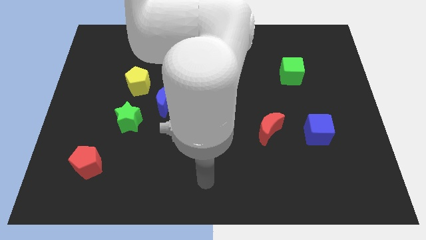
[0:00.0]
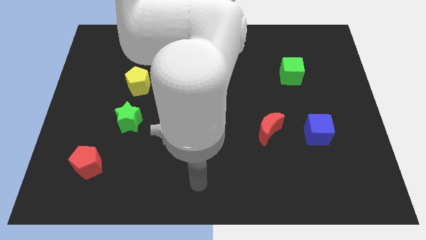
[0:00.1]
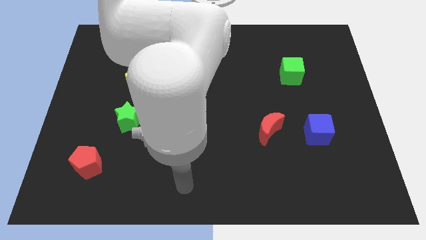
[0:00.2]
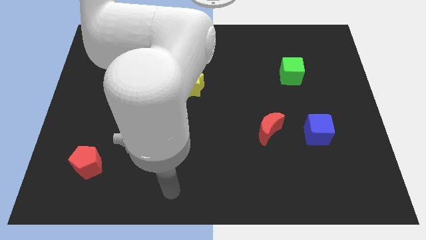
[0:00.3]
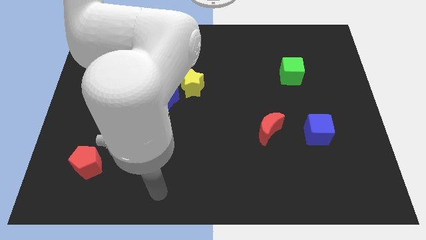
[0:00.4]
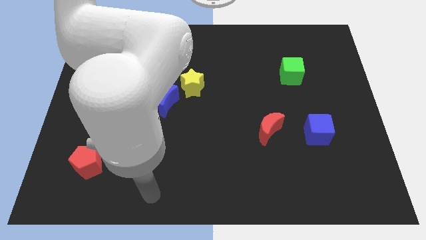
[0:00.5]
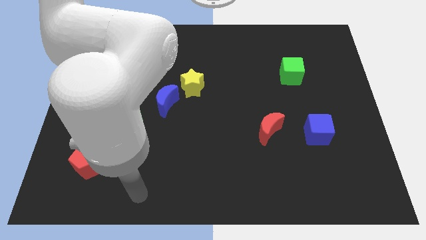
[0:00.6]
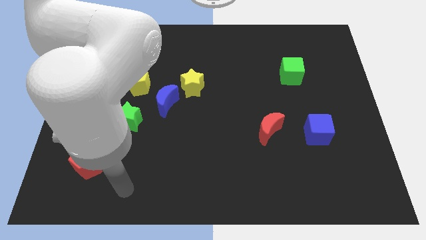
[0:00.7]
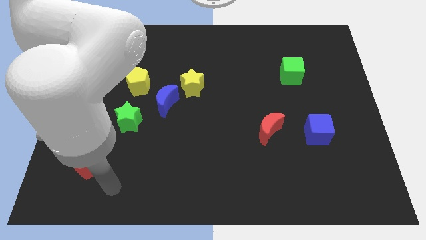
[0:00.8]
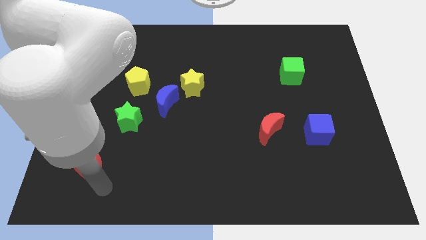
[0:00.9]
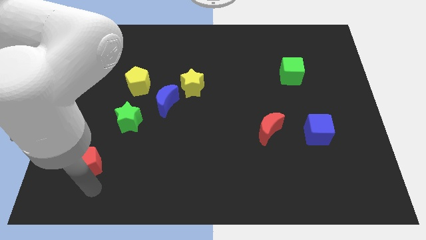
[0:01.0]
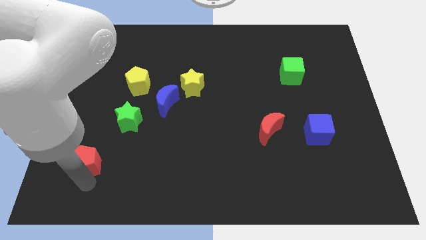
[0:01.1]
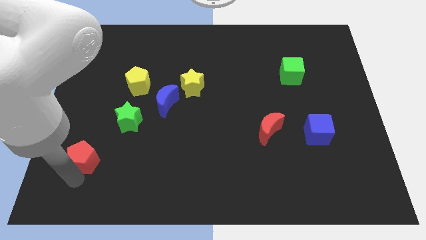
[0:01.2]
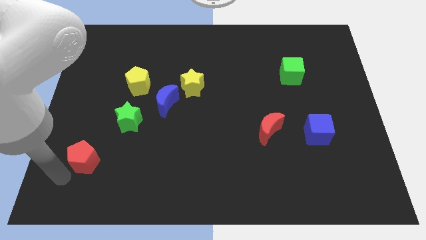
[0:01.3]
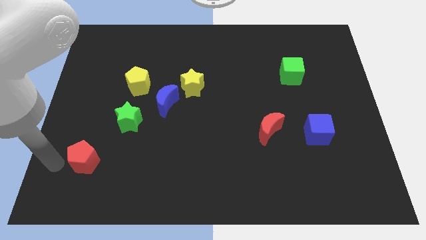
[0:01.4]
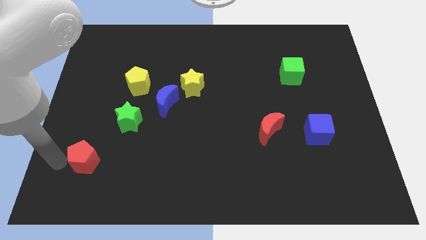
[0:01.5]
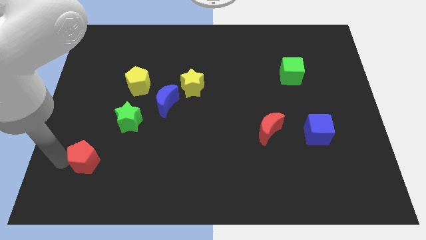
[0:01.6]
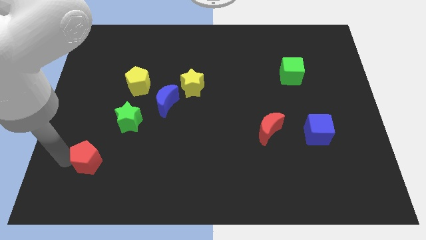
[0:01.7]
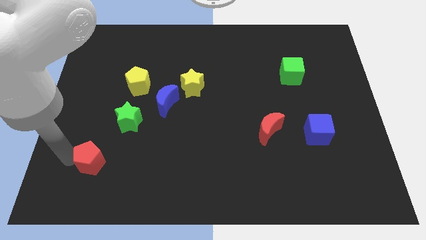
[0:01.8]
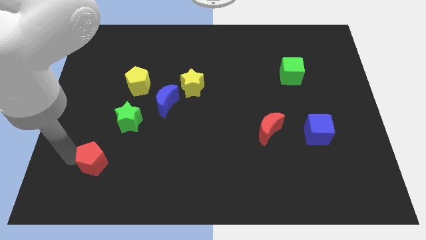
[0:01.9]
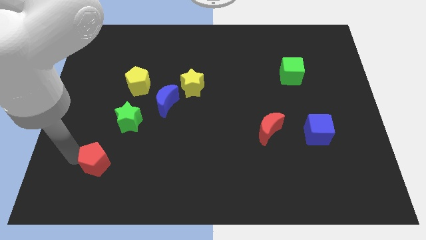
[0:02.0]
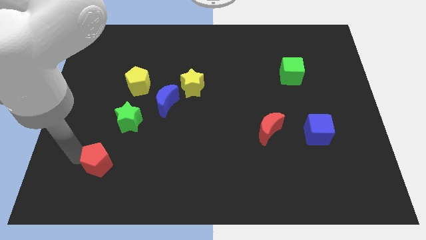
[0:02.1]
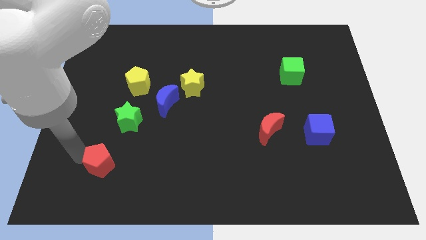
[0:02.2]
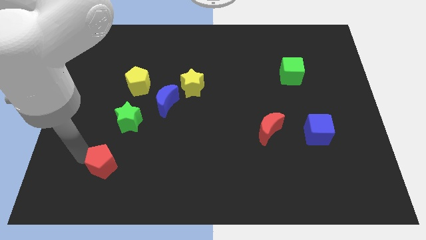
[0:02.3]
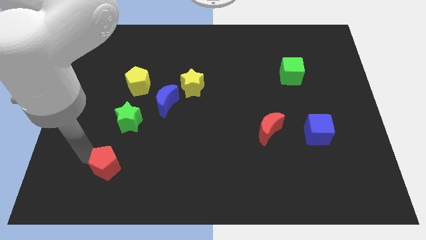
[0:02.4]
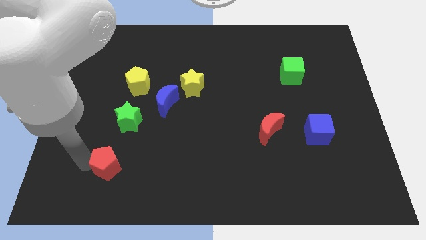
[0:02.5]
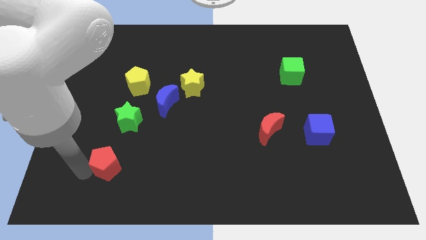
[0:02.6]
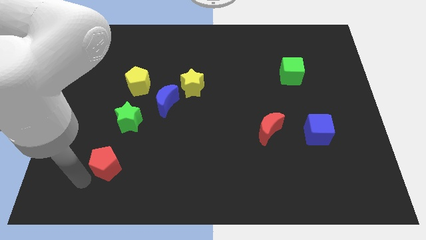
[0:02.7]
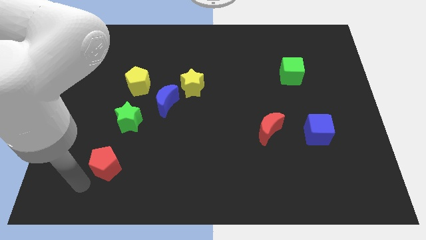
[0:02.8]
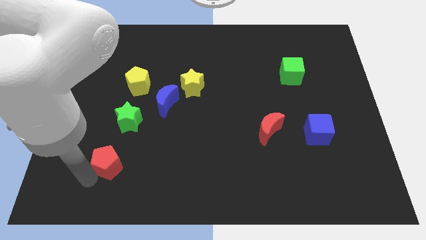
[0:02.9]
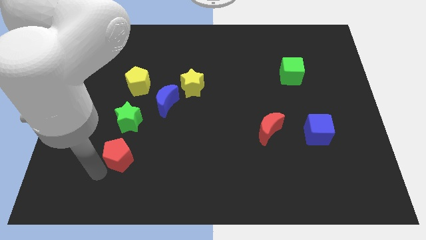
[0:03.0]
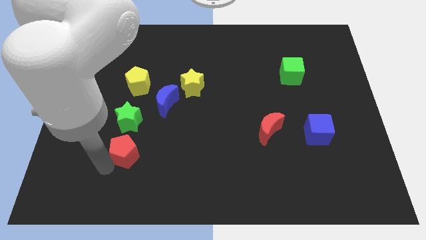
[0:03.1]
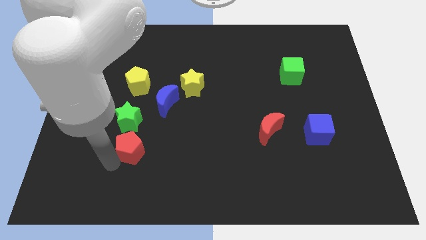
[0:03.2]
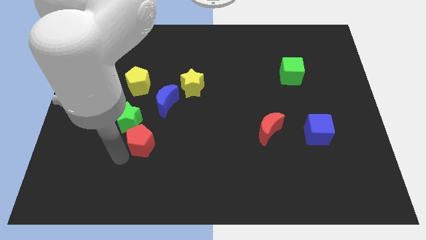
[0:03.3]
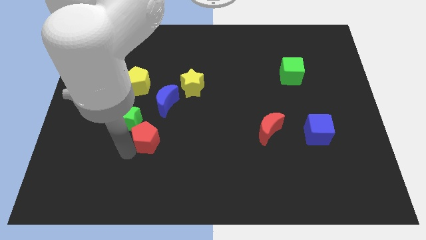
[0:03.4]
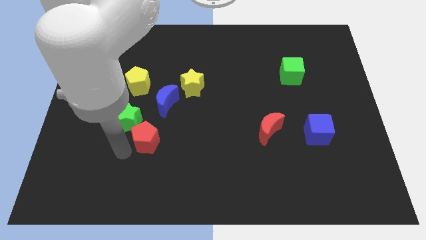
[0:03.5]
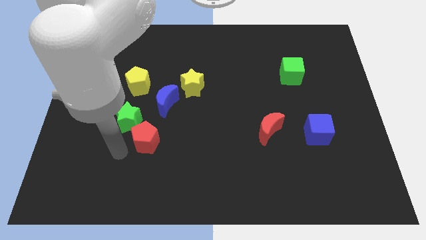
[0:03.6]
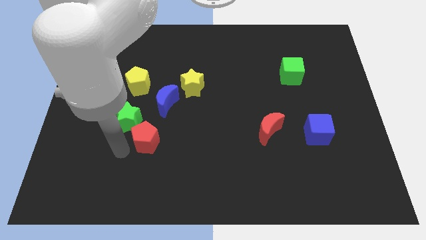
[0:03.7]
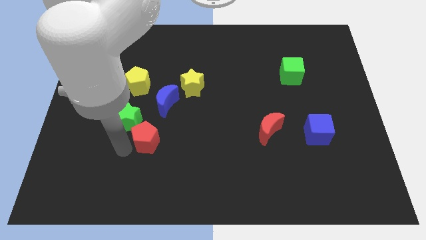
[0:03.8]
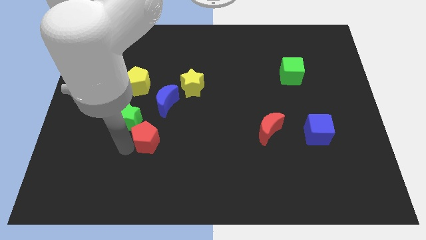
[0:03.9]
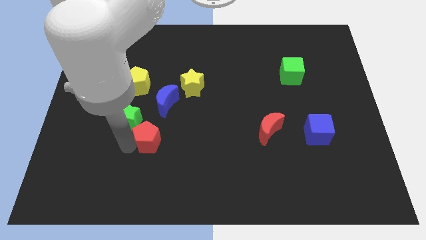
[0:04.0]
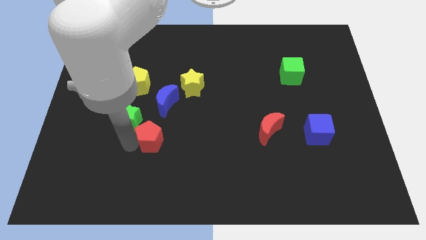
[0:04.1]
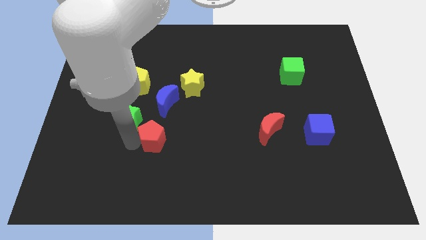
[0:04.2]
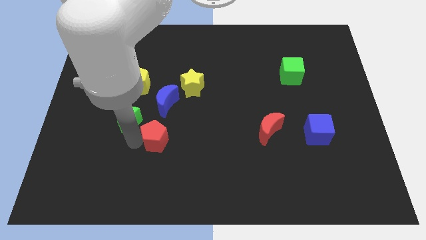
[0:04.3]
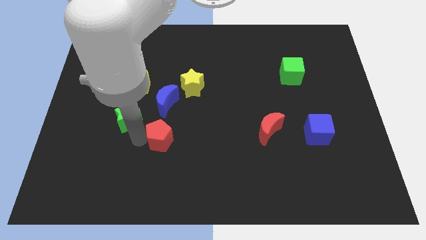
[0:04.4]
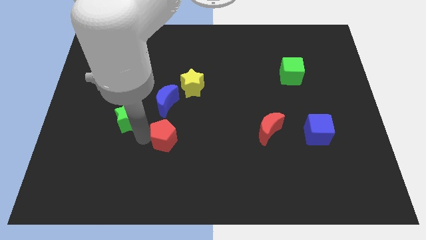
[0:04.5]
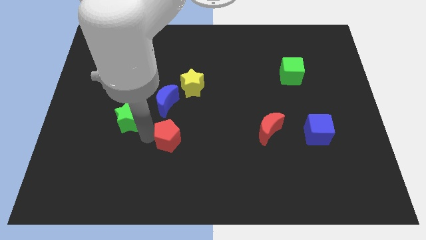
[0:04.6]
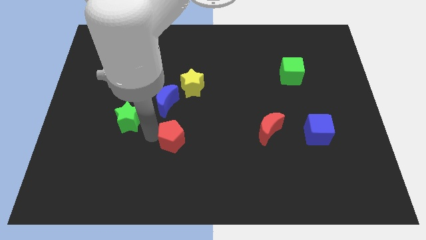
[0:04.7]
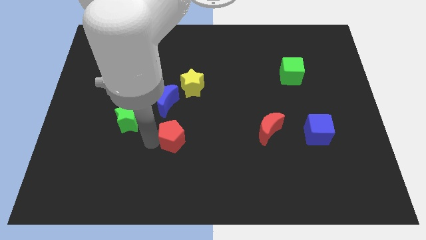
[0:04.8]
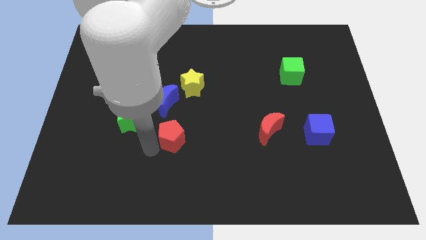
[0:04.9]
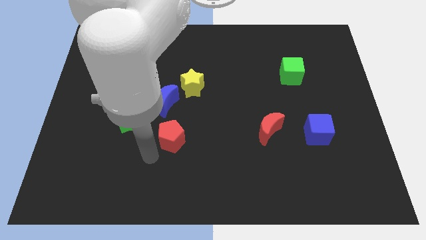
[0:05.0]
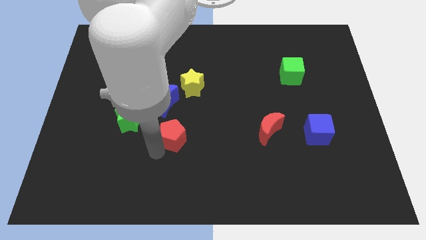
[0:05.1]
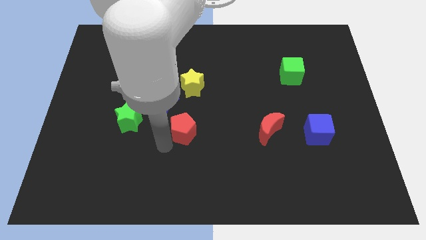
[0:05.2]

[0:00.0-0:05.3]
push the red pentagon to the middle

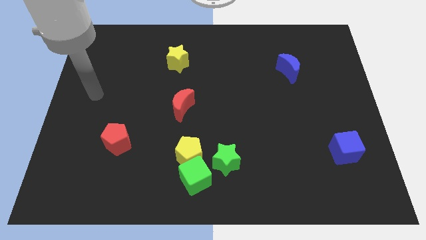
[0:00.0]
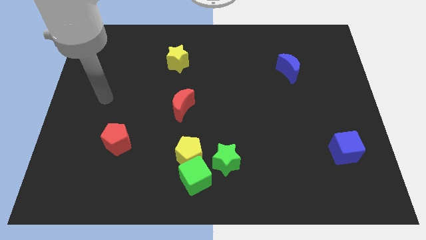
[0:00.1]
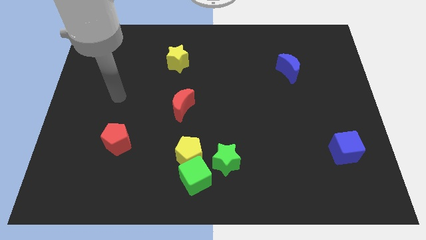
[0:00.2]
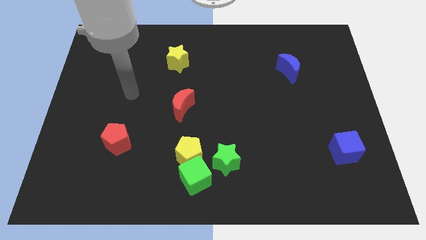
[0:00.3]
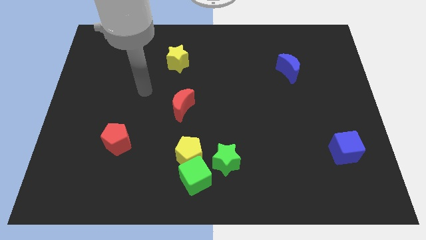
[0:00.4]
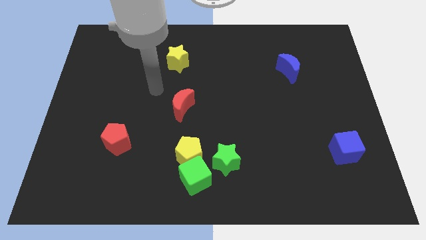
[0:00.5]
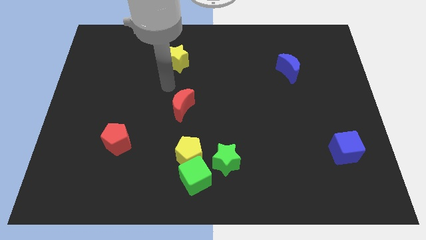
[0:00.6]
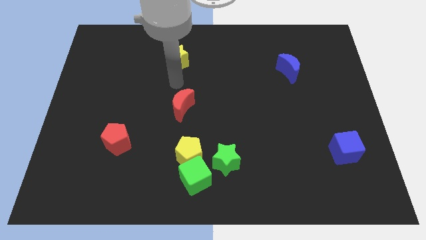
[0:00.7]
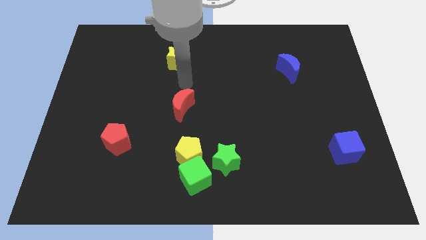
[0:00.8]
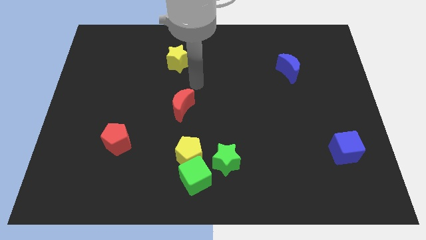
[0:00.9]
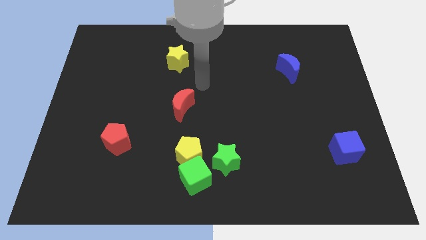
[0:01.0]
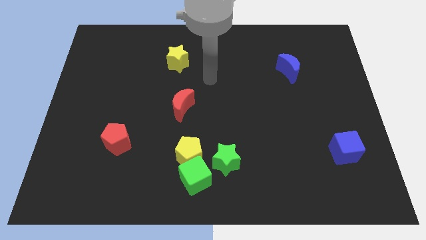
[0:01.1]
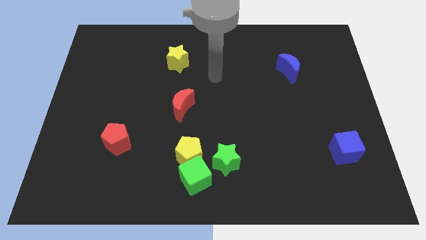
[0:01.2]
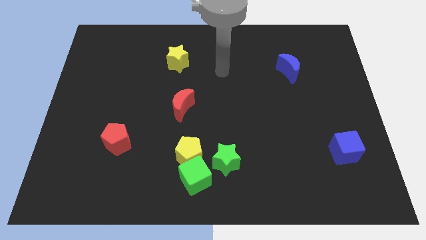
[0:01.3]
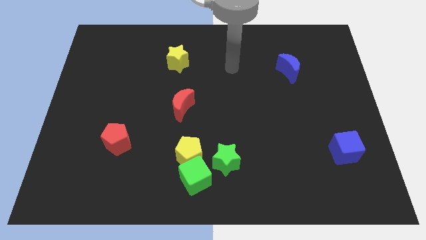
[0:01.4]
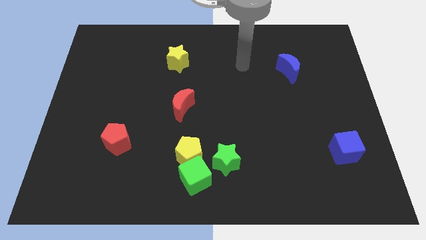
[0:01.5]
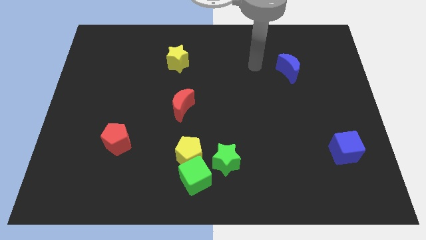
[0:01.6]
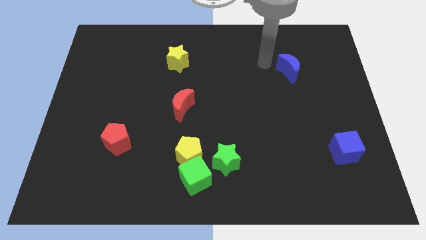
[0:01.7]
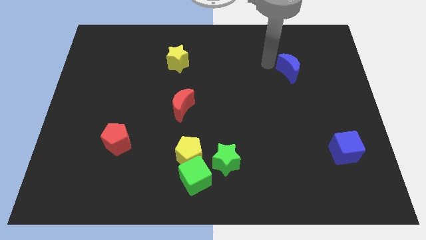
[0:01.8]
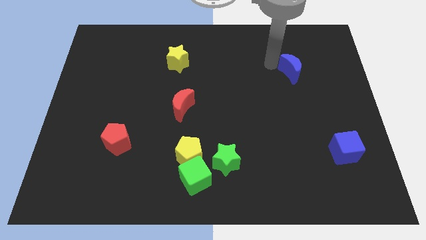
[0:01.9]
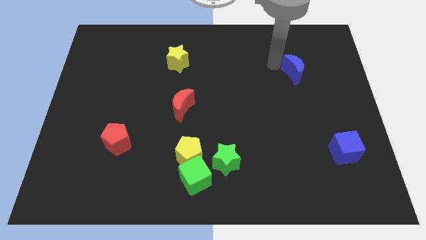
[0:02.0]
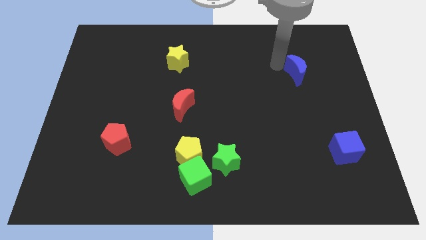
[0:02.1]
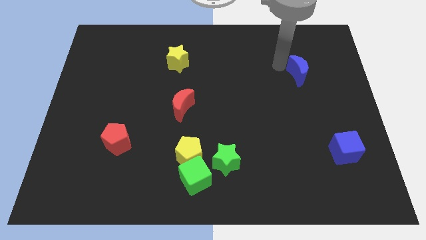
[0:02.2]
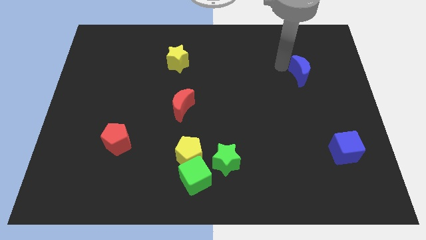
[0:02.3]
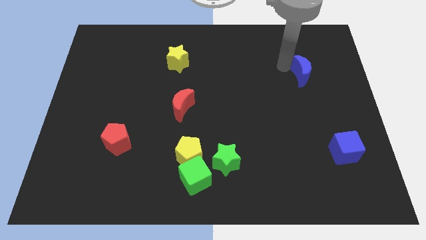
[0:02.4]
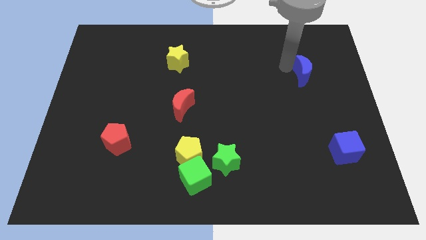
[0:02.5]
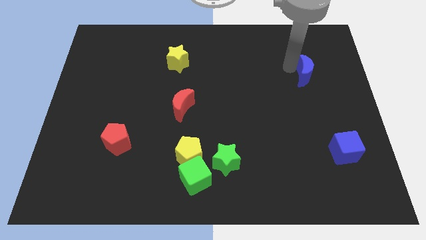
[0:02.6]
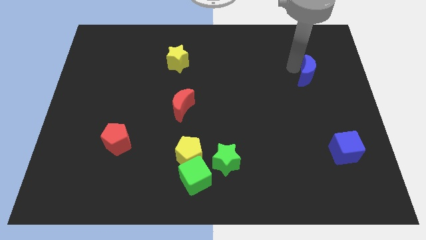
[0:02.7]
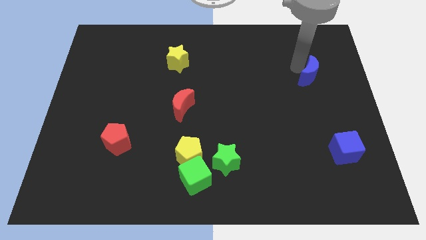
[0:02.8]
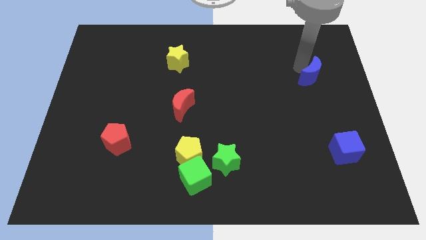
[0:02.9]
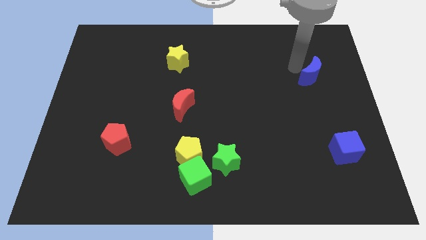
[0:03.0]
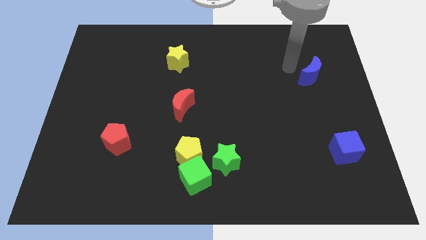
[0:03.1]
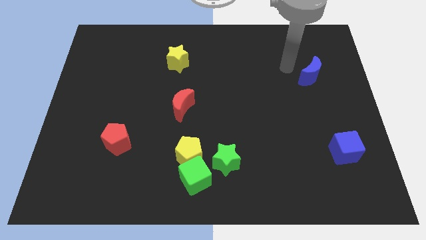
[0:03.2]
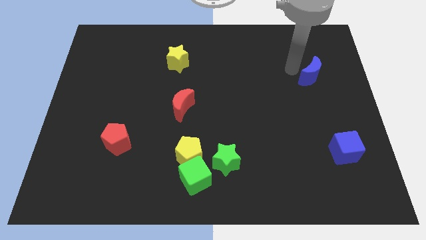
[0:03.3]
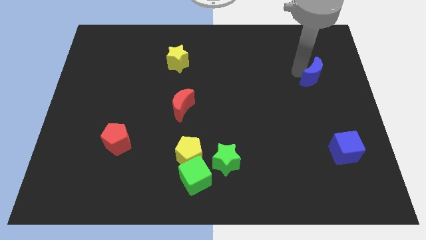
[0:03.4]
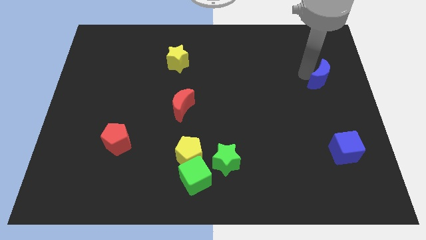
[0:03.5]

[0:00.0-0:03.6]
move the blue moon to the center right
